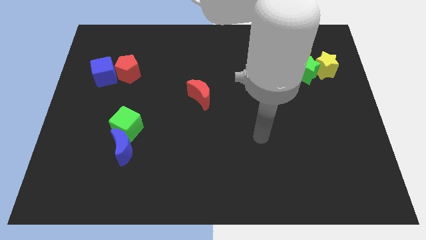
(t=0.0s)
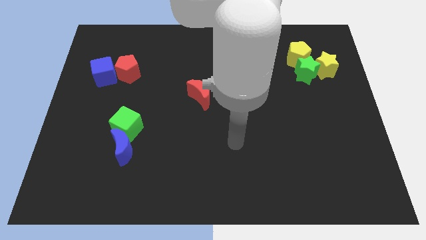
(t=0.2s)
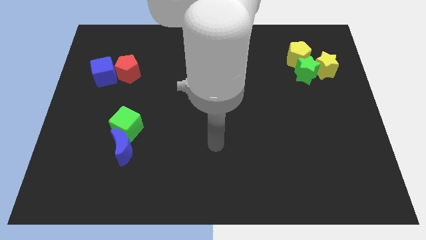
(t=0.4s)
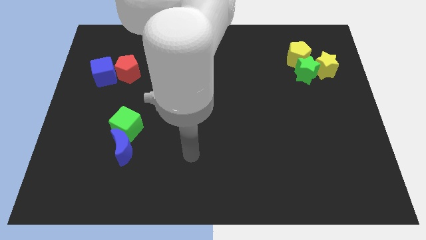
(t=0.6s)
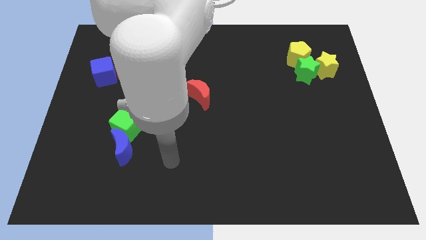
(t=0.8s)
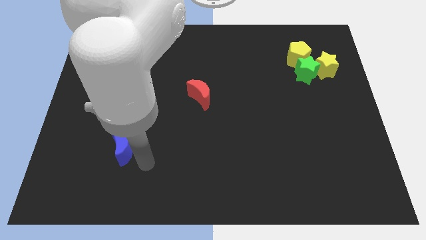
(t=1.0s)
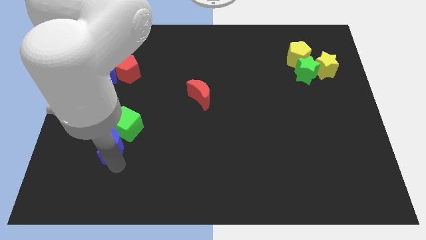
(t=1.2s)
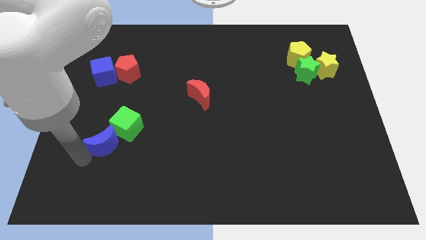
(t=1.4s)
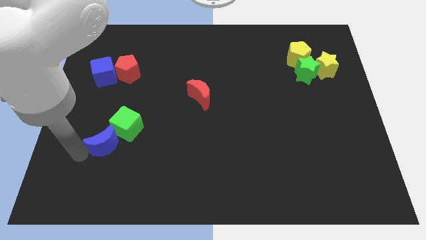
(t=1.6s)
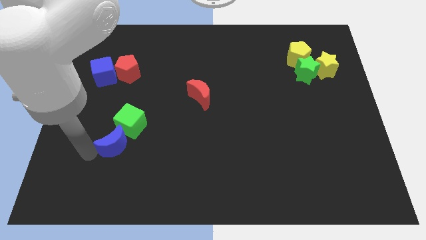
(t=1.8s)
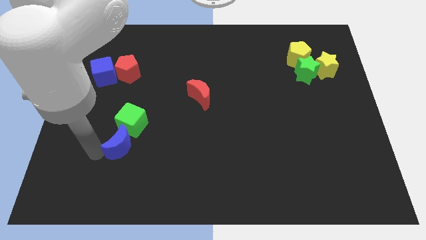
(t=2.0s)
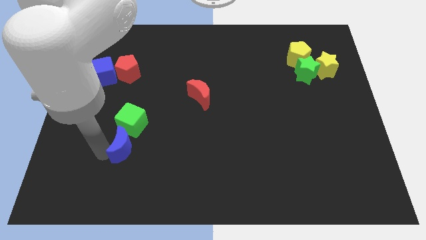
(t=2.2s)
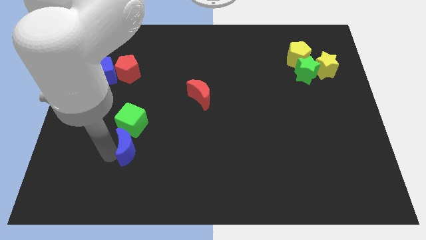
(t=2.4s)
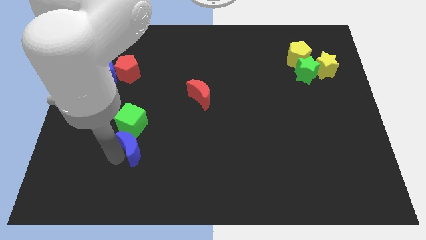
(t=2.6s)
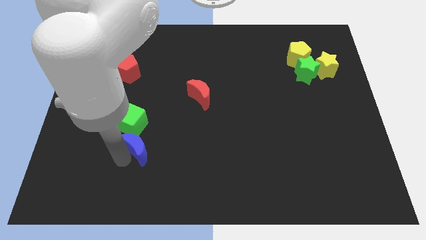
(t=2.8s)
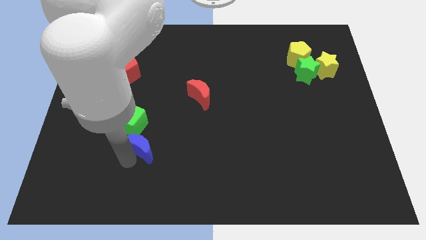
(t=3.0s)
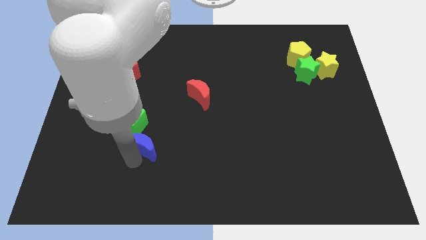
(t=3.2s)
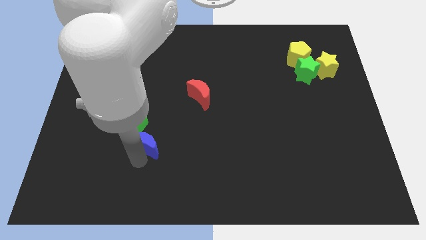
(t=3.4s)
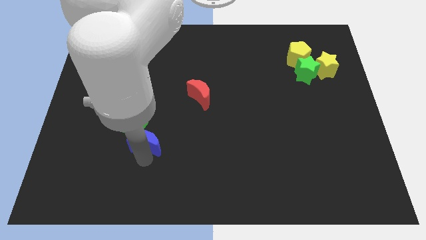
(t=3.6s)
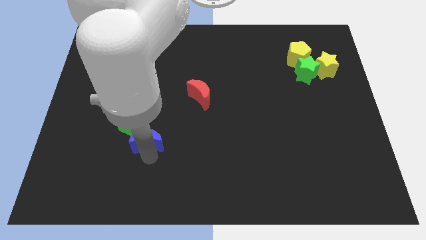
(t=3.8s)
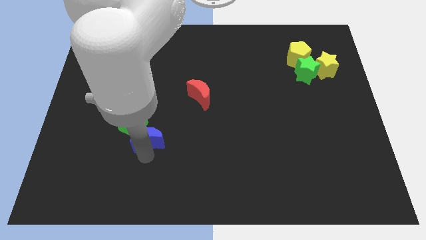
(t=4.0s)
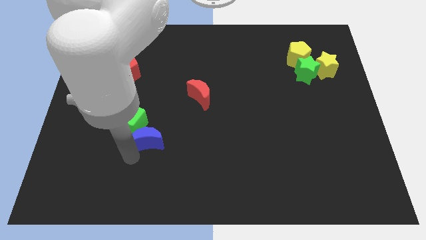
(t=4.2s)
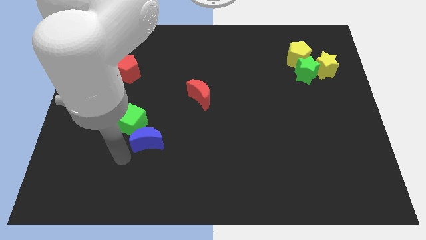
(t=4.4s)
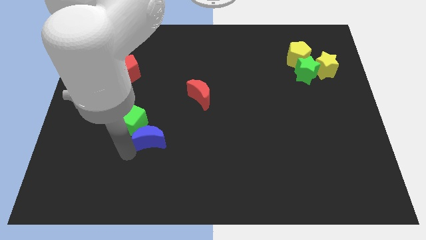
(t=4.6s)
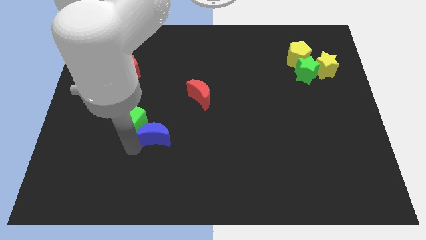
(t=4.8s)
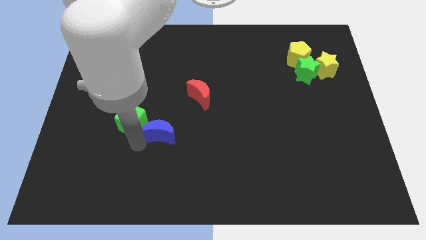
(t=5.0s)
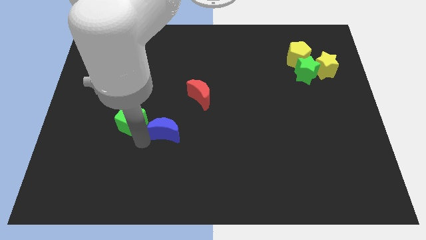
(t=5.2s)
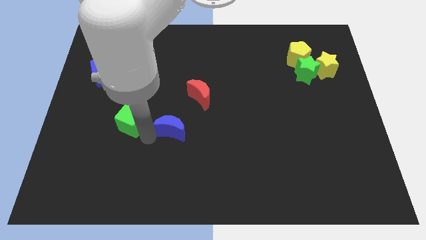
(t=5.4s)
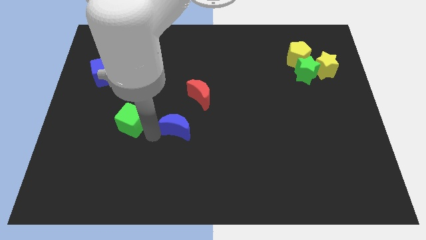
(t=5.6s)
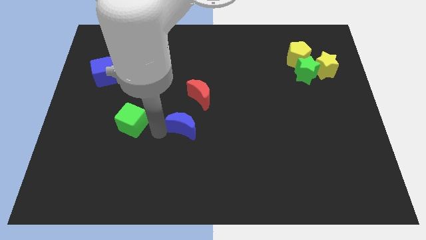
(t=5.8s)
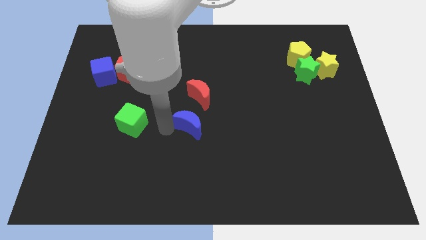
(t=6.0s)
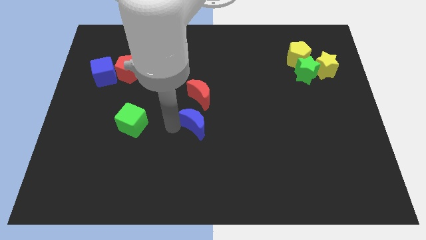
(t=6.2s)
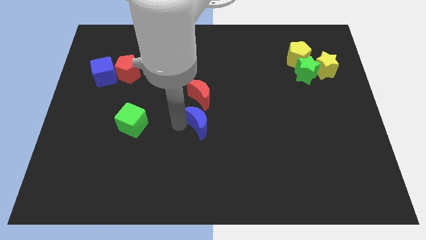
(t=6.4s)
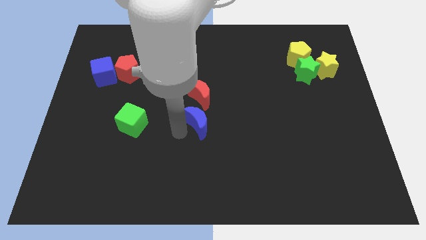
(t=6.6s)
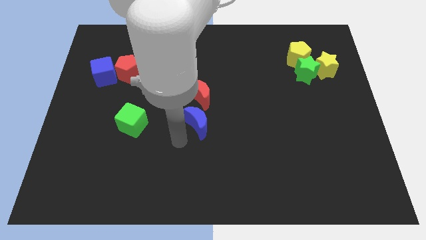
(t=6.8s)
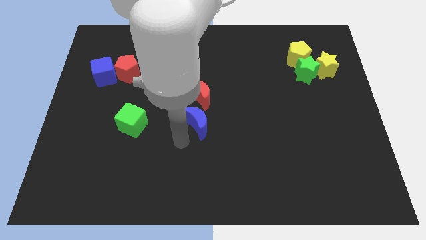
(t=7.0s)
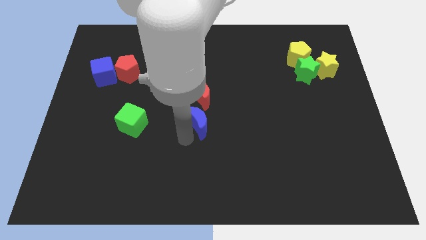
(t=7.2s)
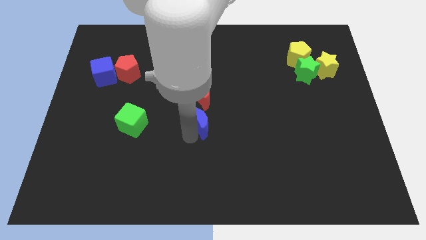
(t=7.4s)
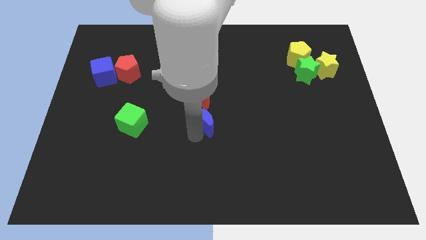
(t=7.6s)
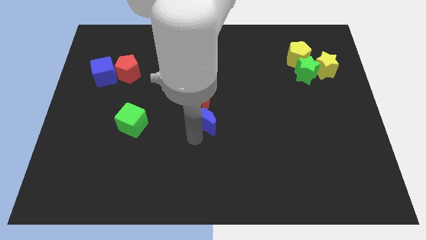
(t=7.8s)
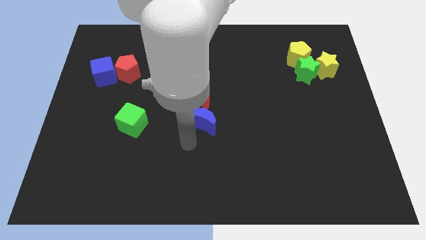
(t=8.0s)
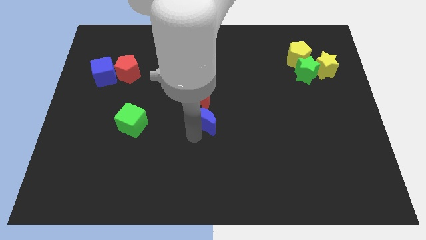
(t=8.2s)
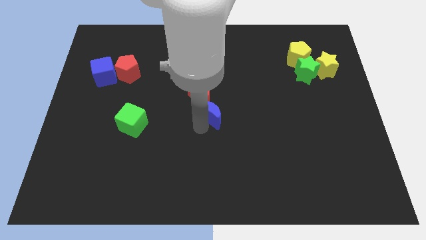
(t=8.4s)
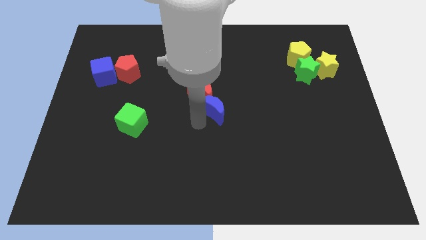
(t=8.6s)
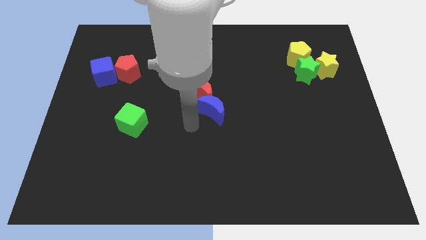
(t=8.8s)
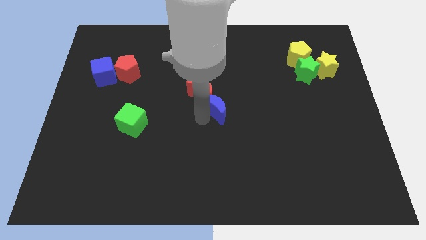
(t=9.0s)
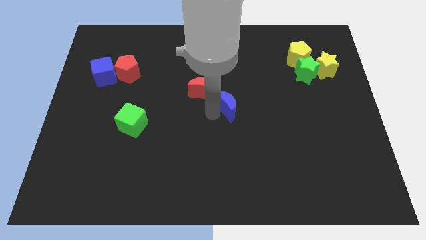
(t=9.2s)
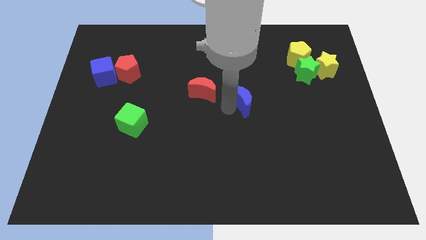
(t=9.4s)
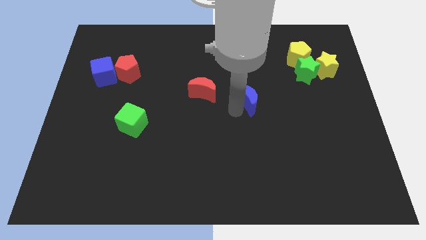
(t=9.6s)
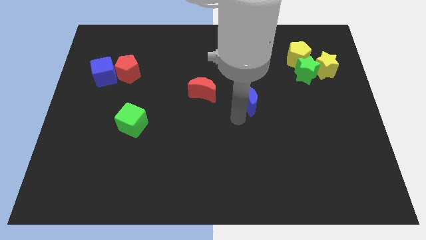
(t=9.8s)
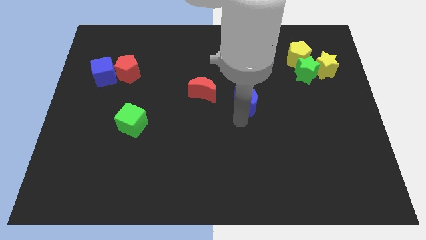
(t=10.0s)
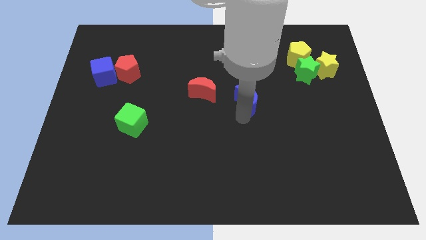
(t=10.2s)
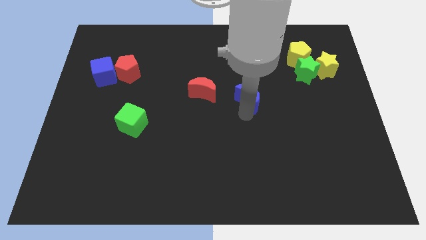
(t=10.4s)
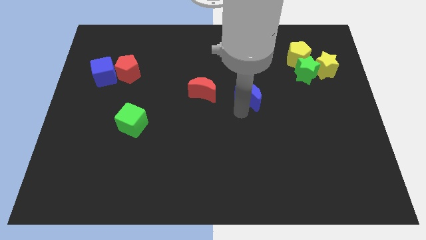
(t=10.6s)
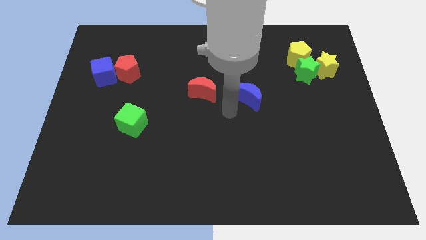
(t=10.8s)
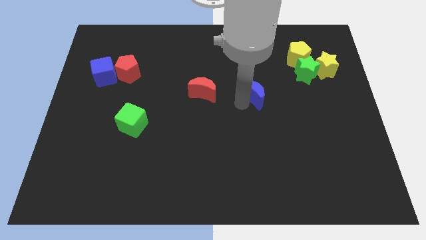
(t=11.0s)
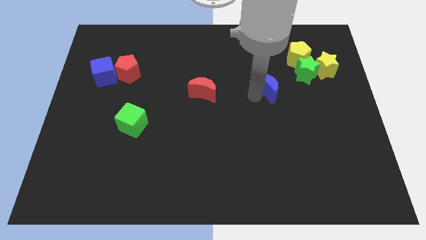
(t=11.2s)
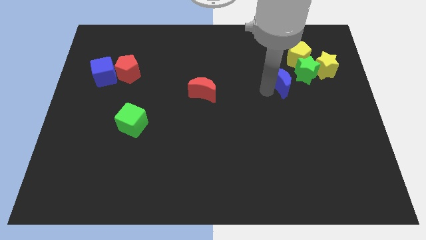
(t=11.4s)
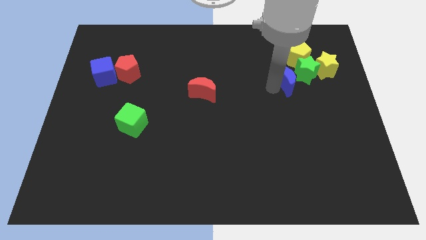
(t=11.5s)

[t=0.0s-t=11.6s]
slide the blue moon towards the green star

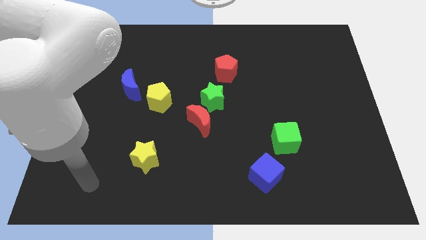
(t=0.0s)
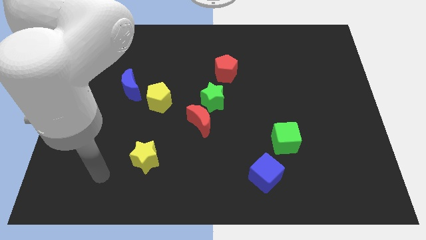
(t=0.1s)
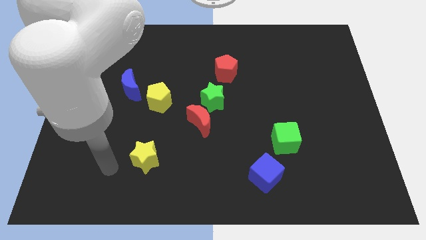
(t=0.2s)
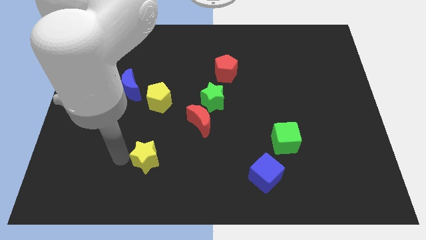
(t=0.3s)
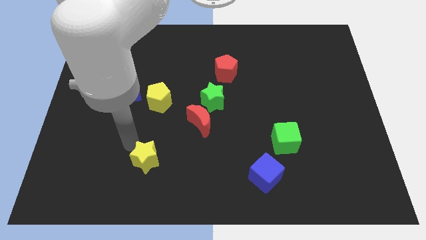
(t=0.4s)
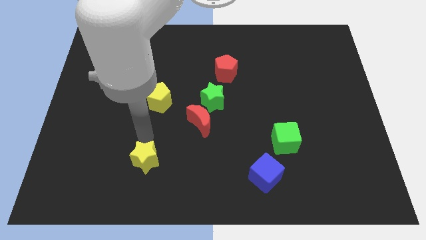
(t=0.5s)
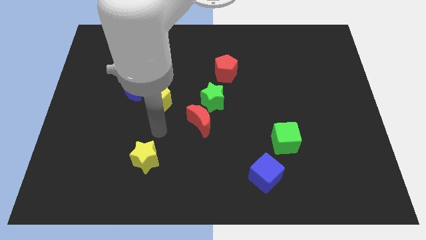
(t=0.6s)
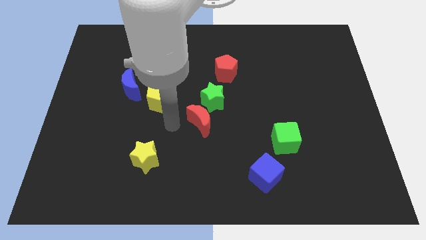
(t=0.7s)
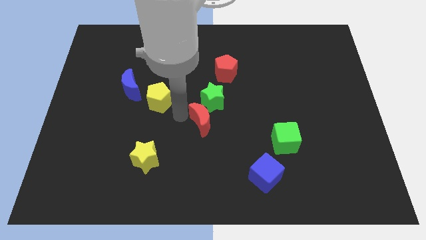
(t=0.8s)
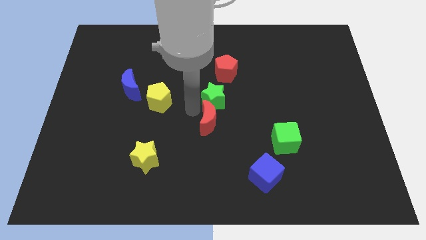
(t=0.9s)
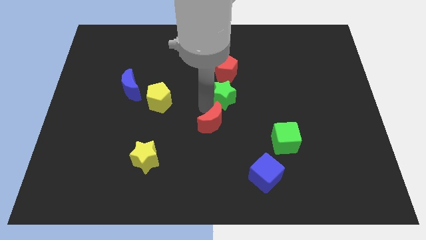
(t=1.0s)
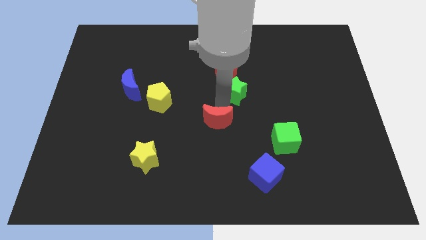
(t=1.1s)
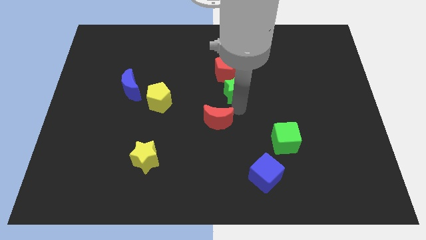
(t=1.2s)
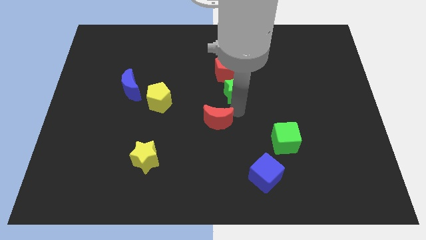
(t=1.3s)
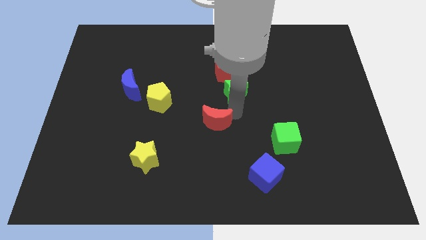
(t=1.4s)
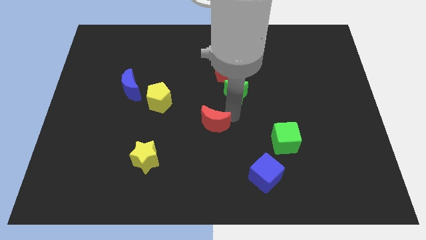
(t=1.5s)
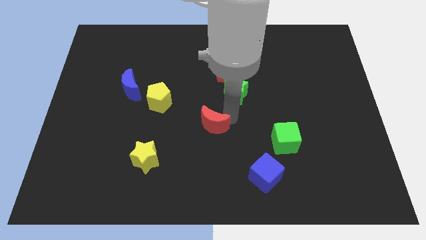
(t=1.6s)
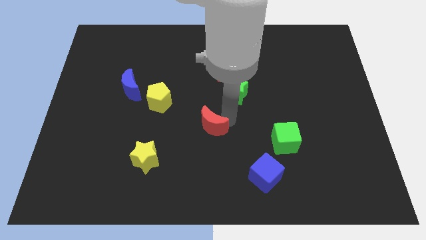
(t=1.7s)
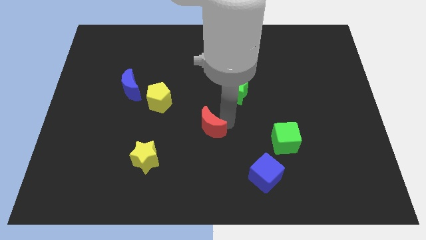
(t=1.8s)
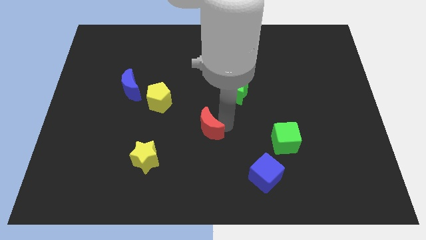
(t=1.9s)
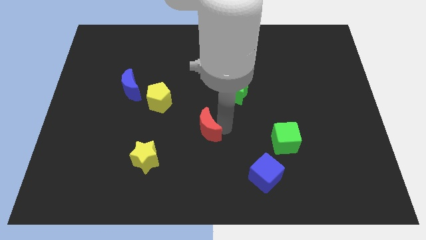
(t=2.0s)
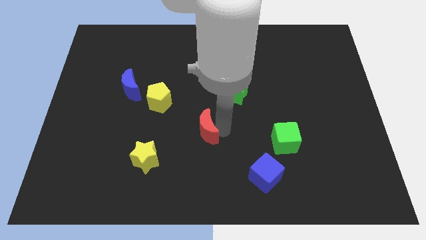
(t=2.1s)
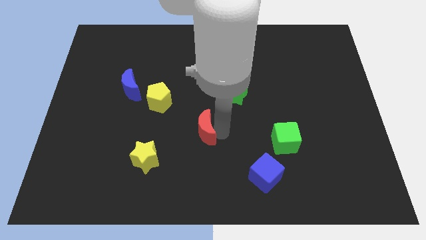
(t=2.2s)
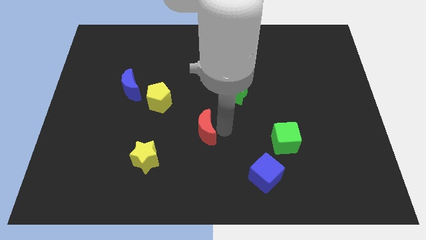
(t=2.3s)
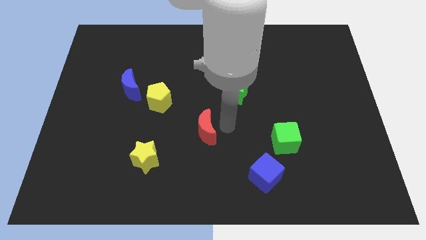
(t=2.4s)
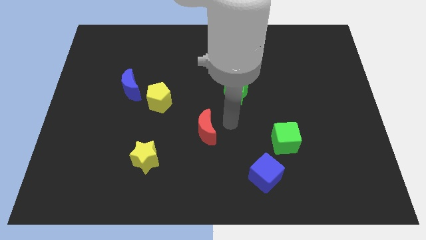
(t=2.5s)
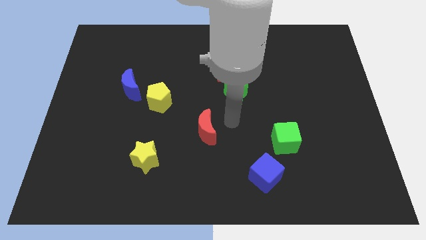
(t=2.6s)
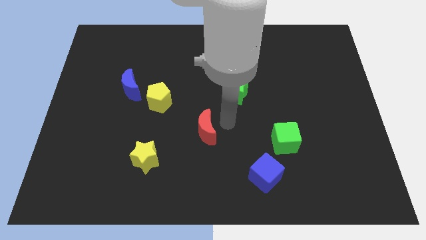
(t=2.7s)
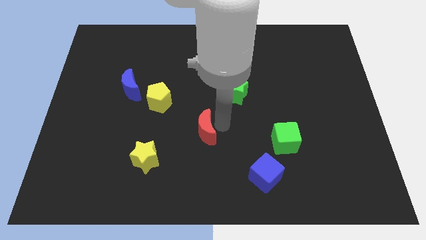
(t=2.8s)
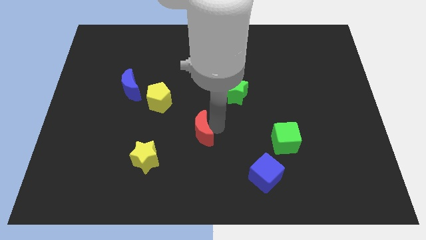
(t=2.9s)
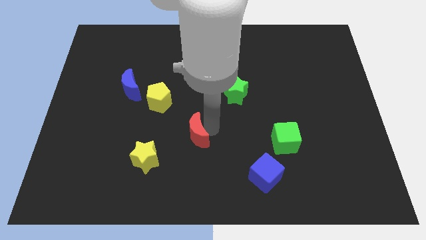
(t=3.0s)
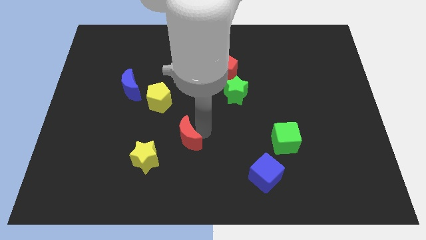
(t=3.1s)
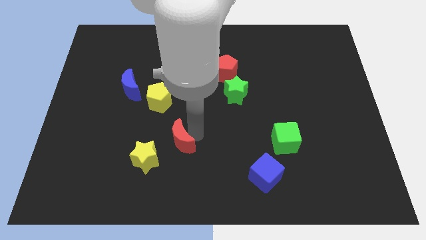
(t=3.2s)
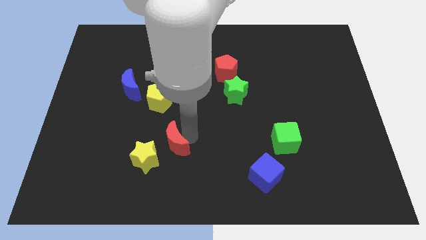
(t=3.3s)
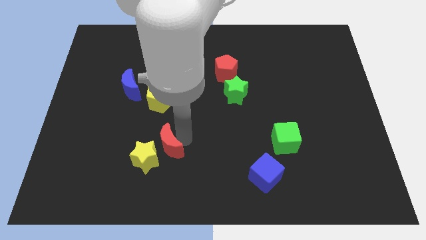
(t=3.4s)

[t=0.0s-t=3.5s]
push the red moon to the yellow star
